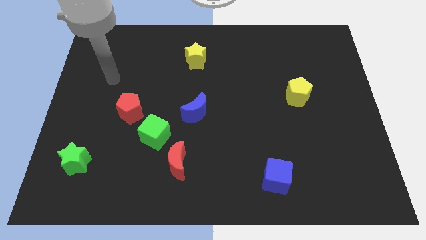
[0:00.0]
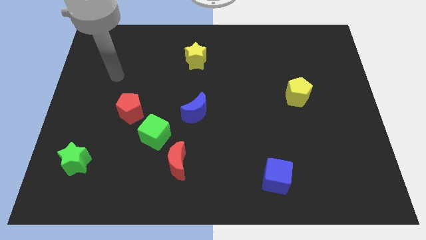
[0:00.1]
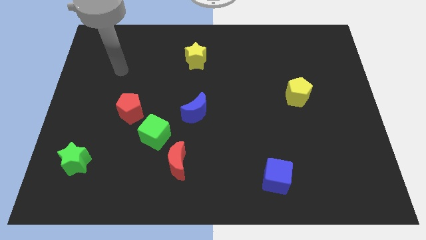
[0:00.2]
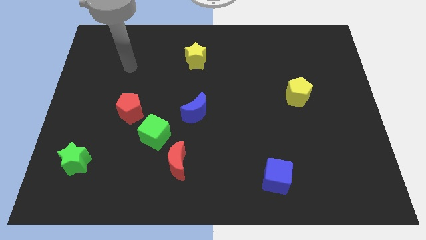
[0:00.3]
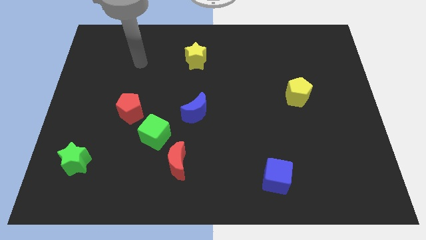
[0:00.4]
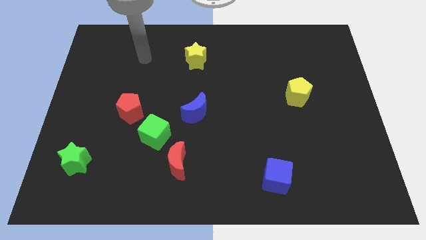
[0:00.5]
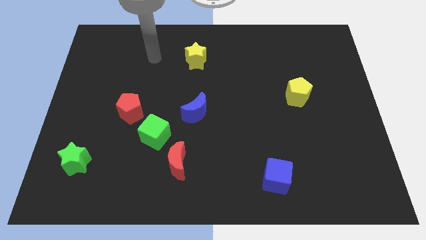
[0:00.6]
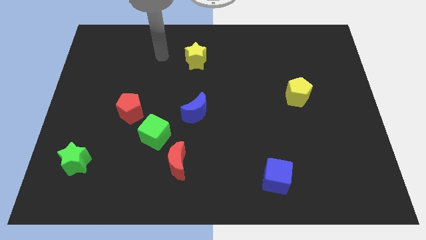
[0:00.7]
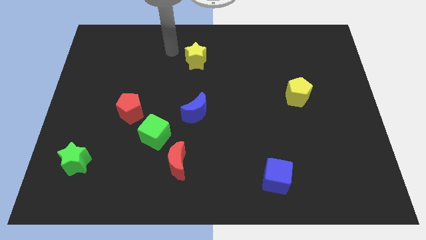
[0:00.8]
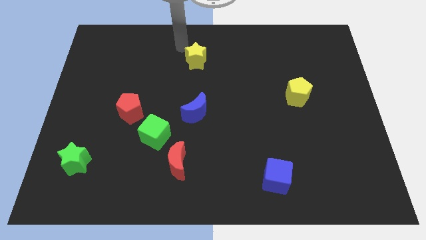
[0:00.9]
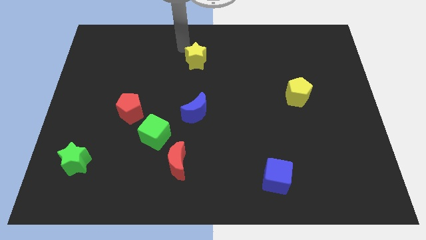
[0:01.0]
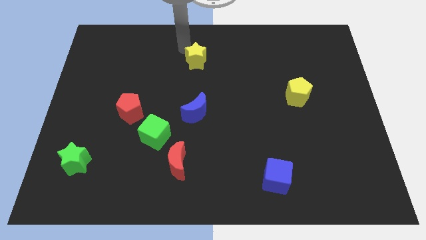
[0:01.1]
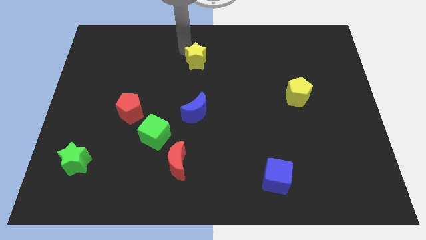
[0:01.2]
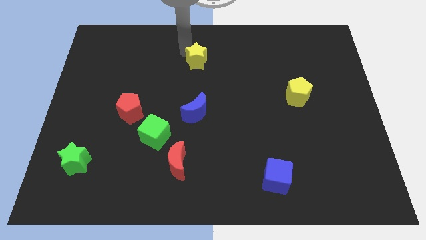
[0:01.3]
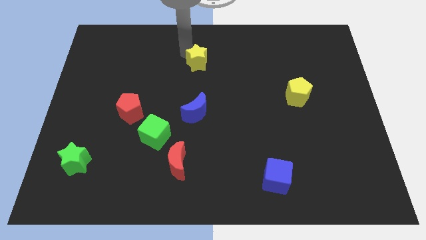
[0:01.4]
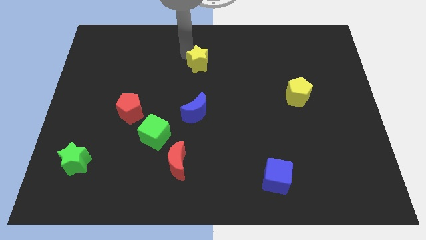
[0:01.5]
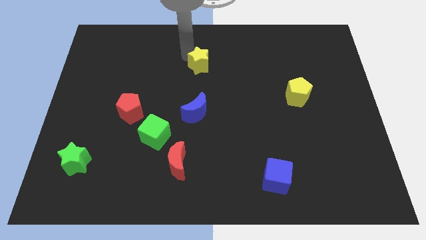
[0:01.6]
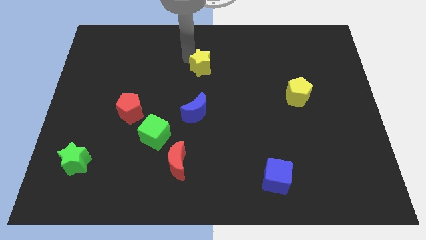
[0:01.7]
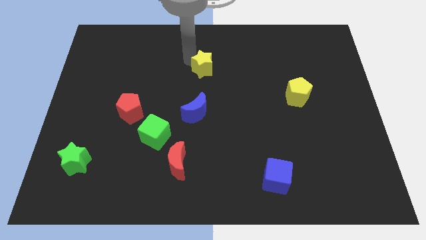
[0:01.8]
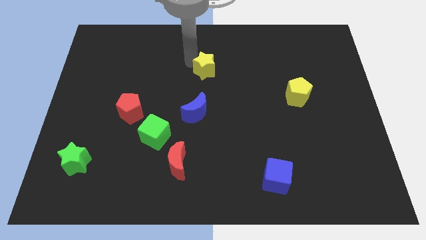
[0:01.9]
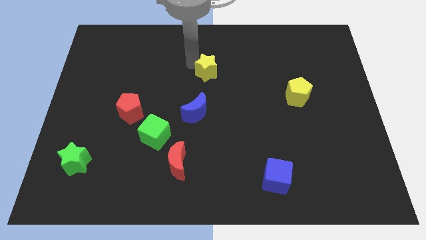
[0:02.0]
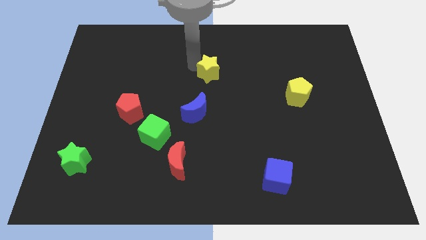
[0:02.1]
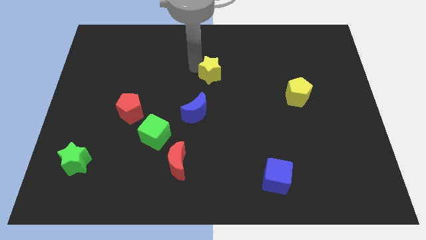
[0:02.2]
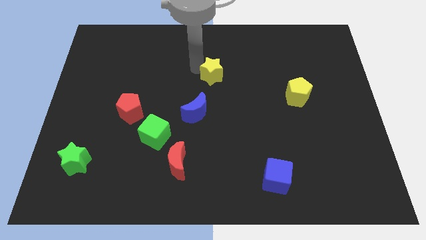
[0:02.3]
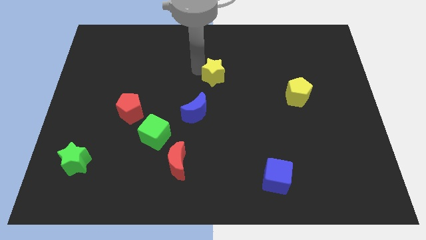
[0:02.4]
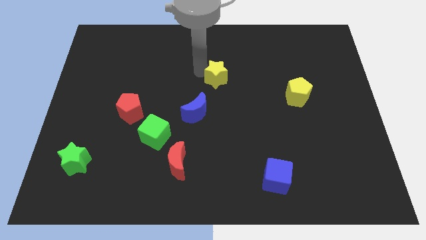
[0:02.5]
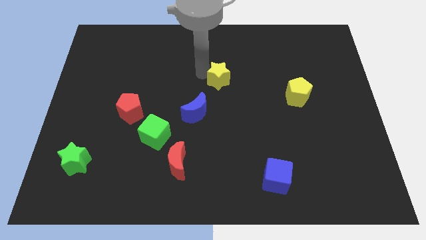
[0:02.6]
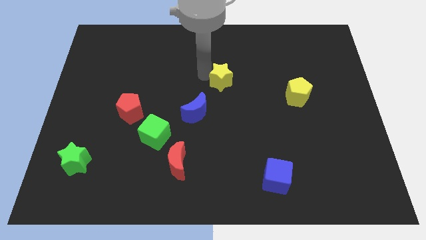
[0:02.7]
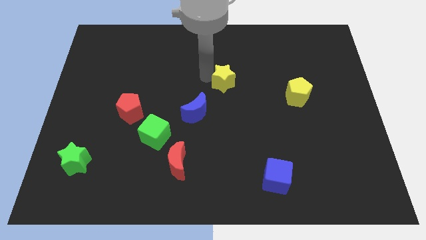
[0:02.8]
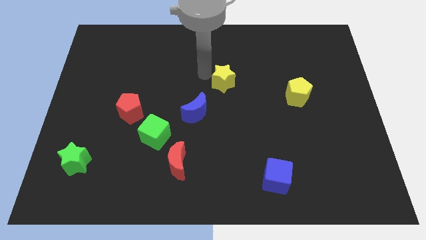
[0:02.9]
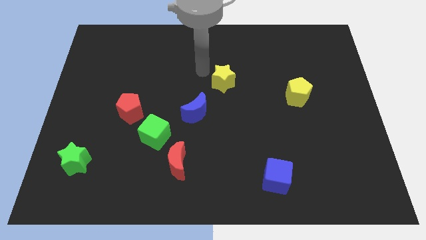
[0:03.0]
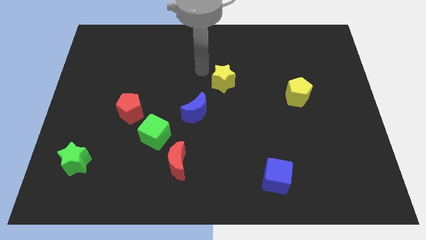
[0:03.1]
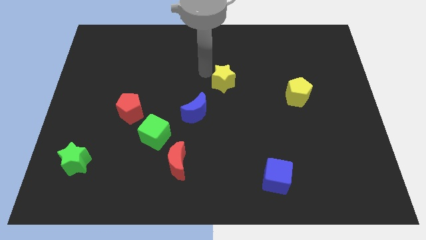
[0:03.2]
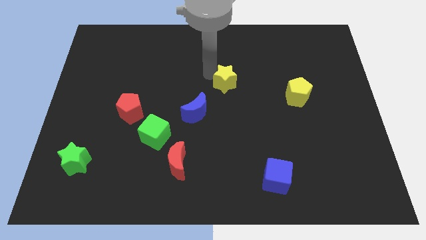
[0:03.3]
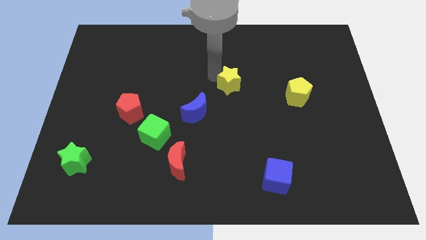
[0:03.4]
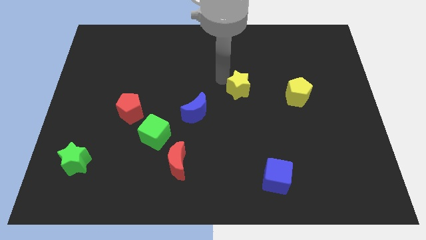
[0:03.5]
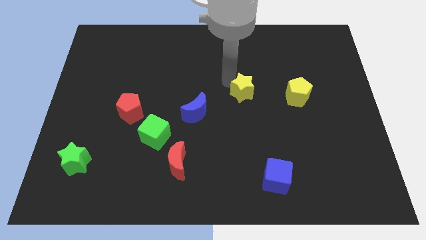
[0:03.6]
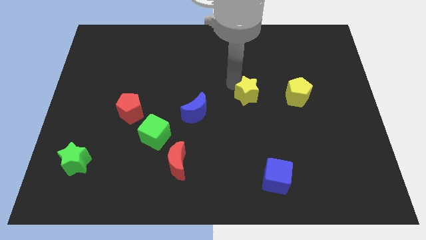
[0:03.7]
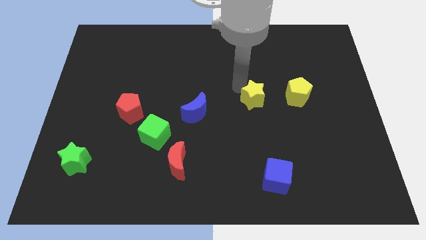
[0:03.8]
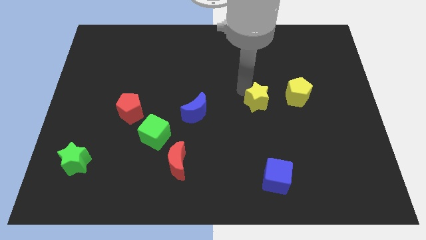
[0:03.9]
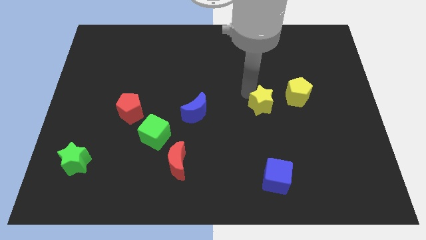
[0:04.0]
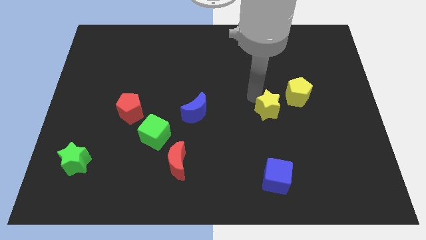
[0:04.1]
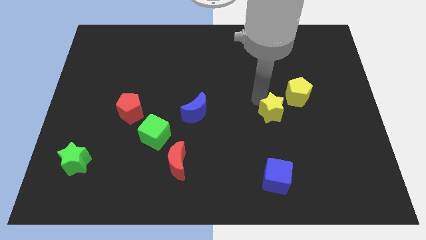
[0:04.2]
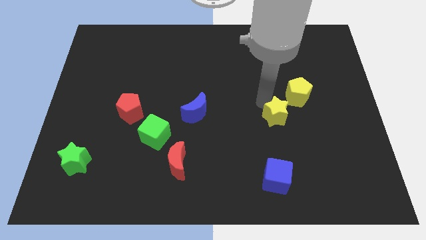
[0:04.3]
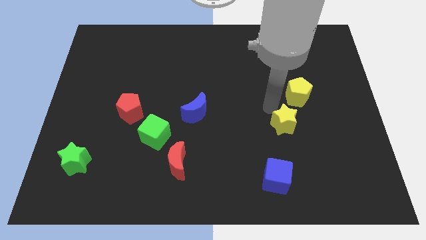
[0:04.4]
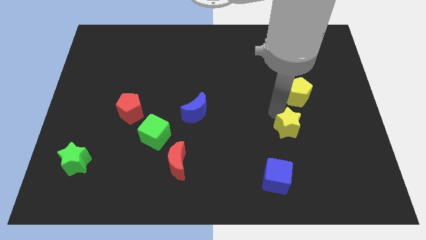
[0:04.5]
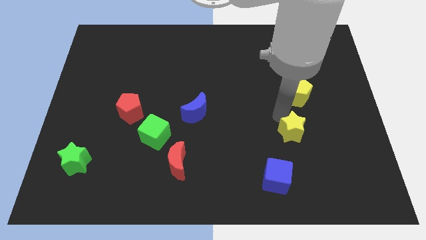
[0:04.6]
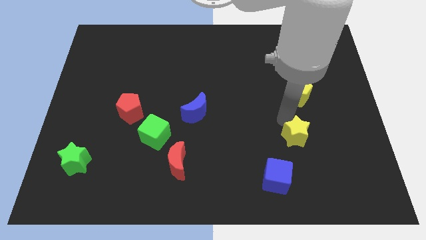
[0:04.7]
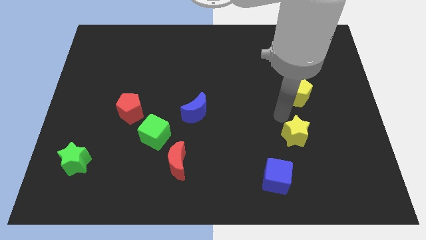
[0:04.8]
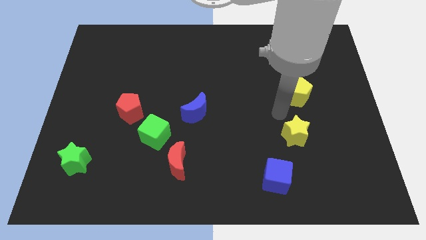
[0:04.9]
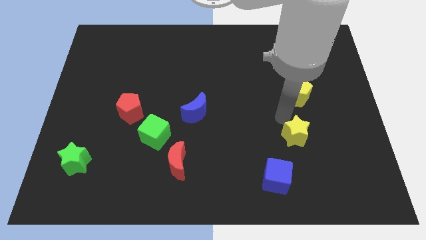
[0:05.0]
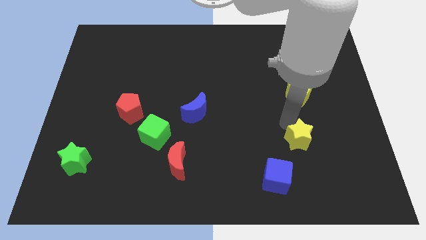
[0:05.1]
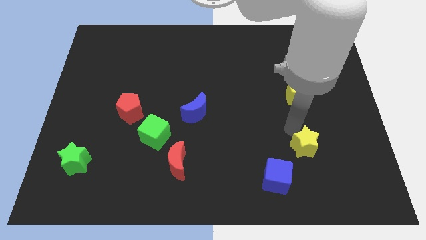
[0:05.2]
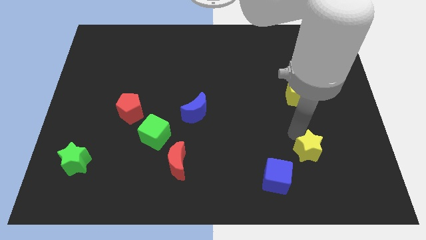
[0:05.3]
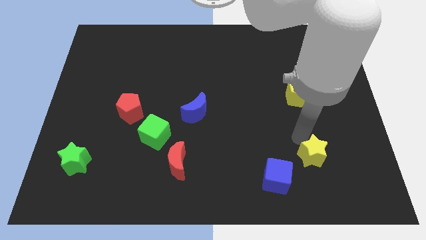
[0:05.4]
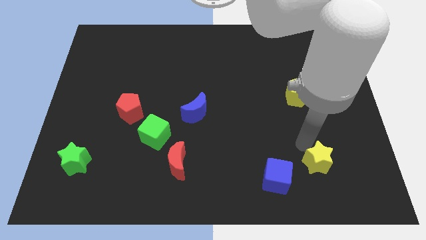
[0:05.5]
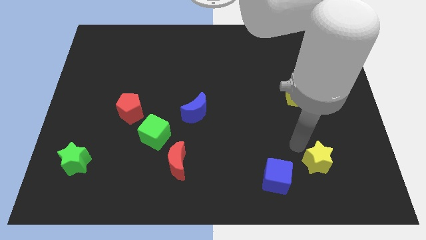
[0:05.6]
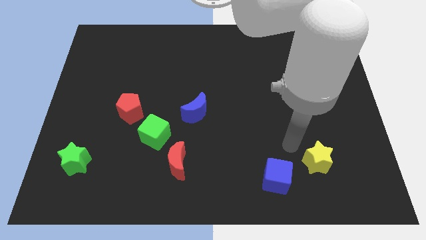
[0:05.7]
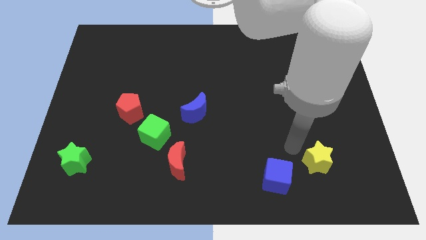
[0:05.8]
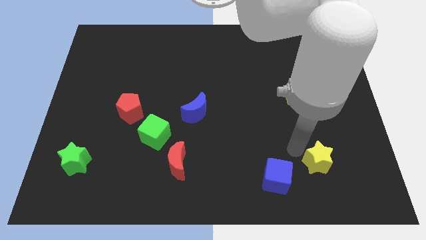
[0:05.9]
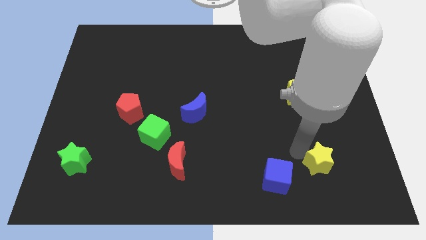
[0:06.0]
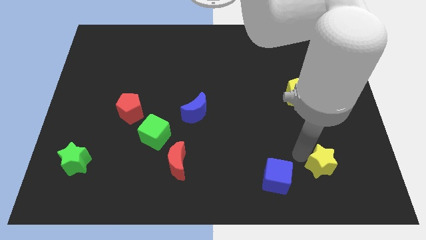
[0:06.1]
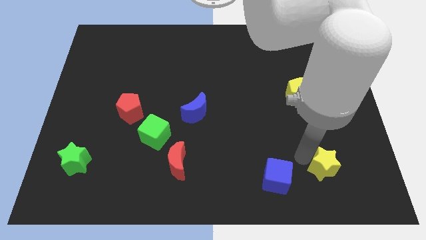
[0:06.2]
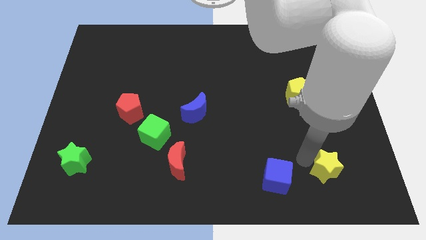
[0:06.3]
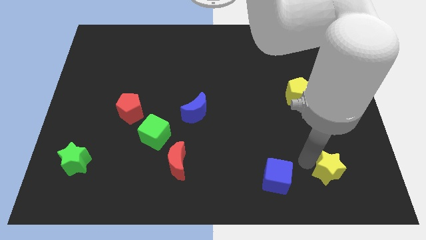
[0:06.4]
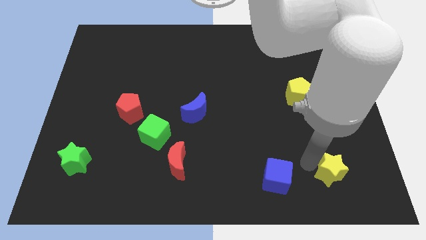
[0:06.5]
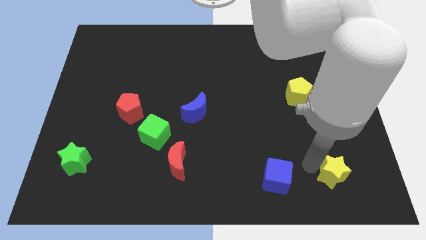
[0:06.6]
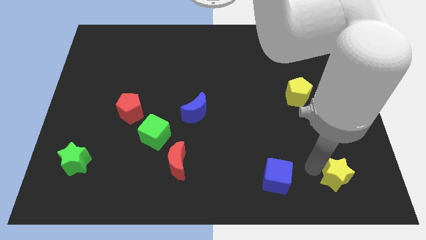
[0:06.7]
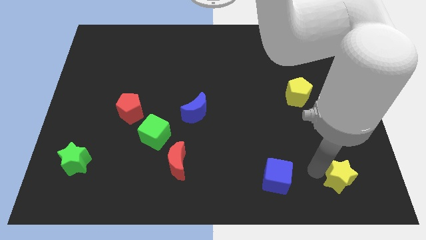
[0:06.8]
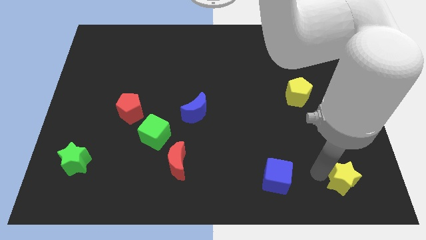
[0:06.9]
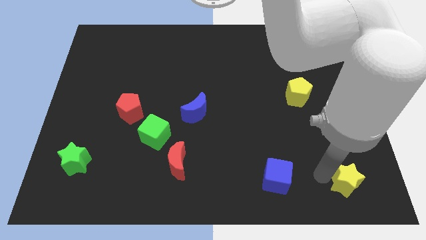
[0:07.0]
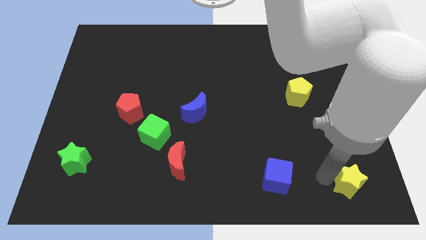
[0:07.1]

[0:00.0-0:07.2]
push the yellow star to the bottom right of the board
